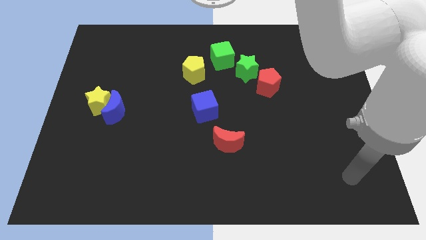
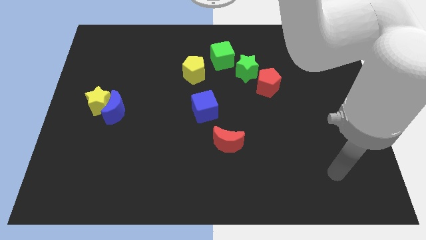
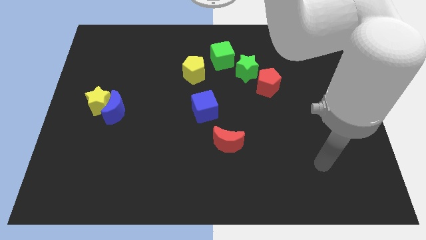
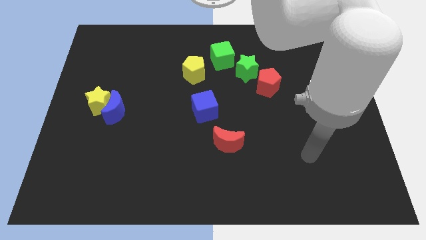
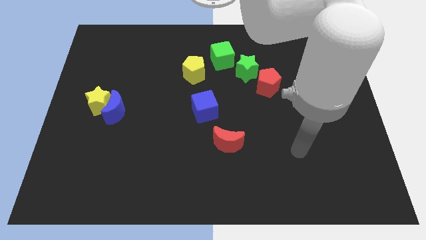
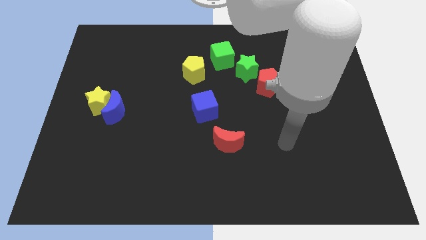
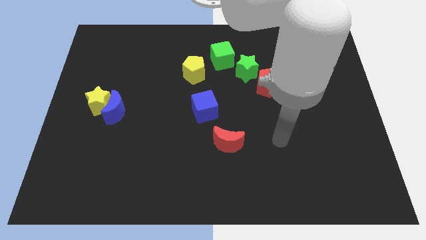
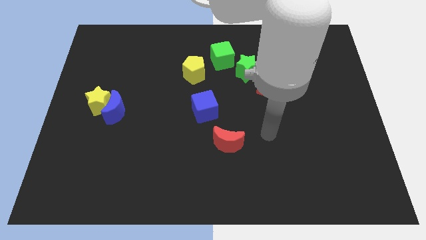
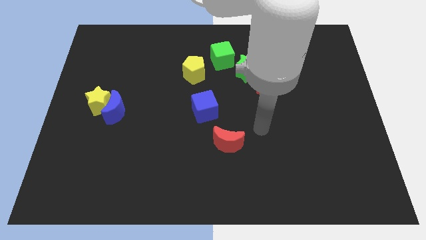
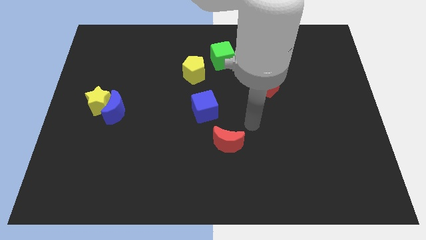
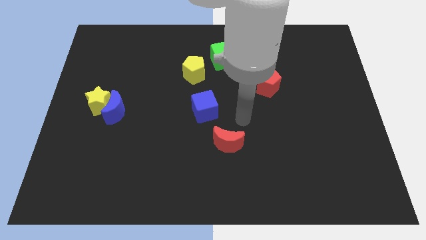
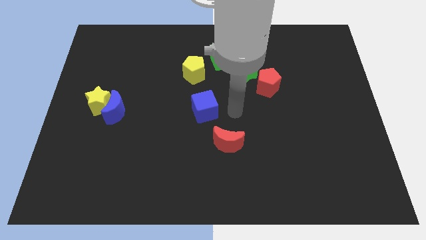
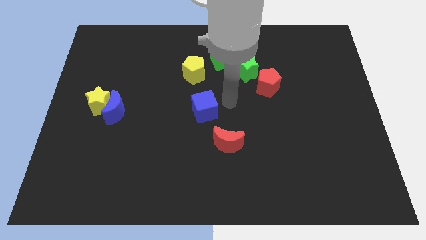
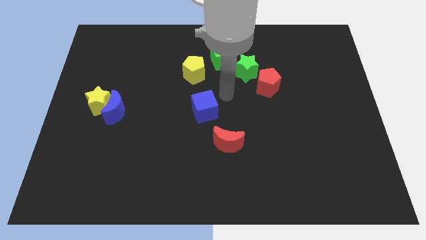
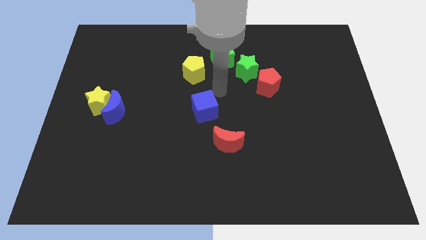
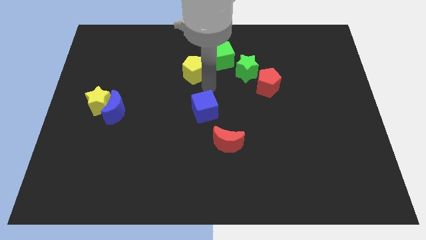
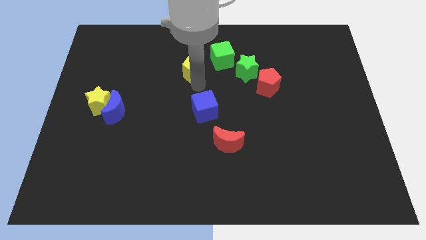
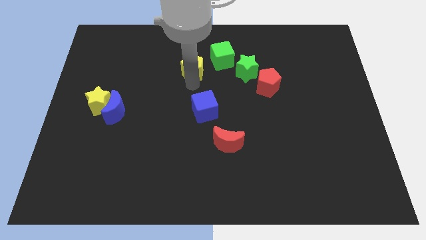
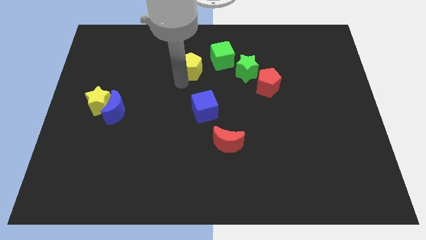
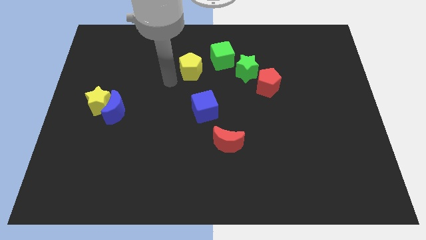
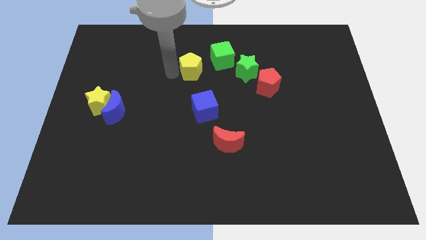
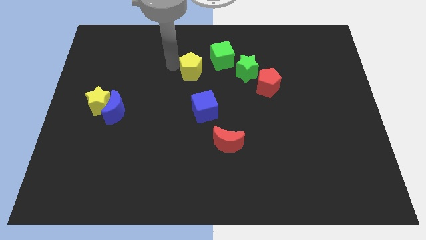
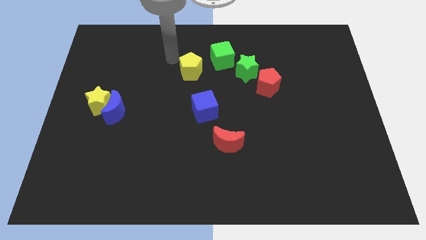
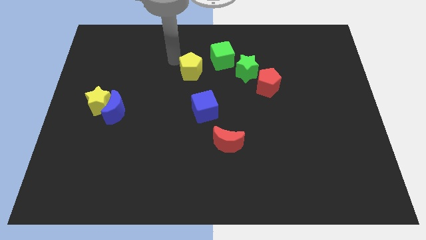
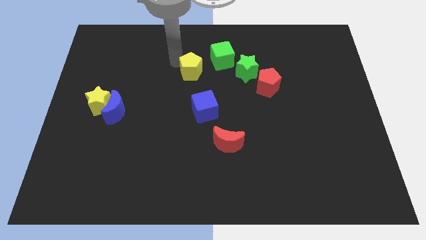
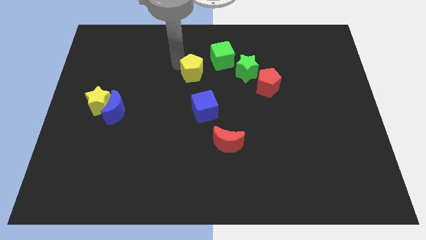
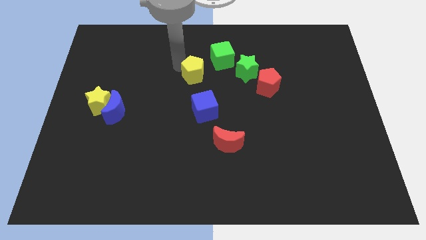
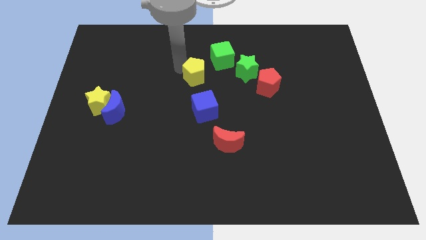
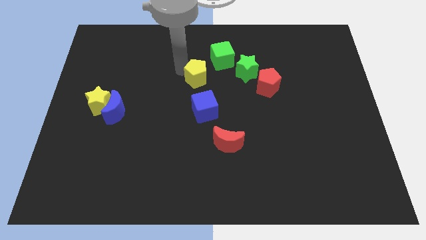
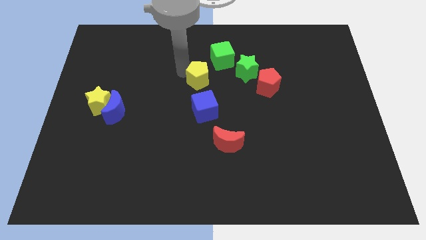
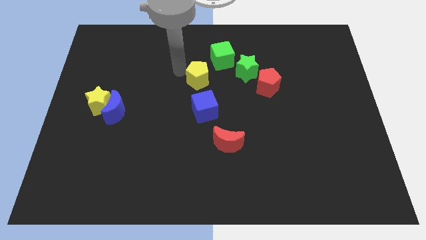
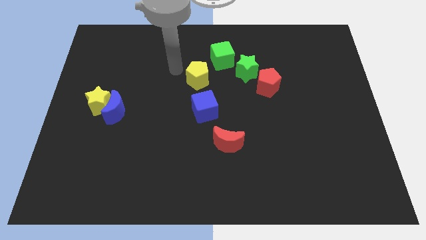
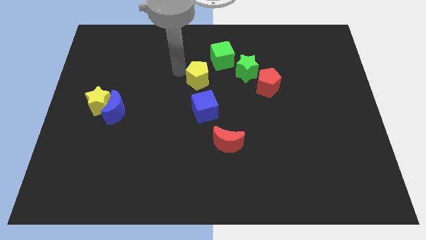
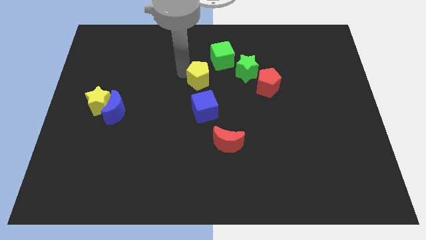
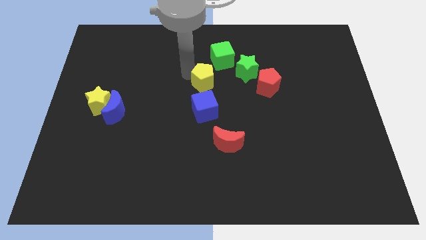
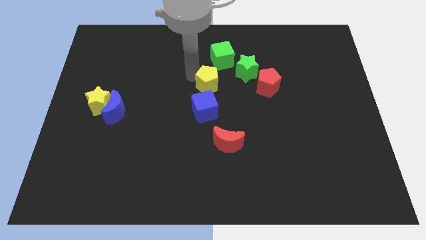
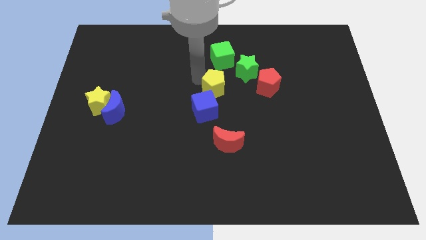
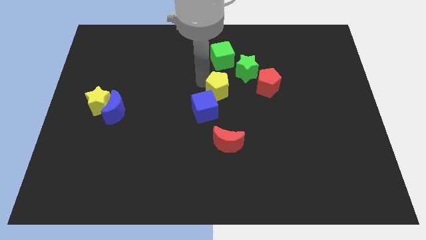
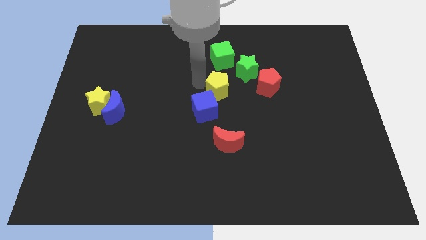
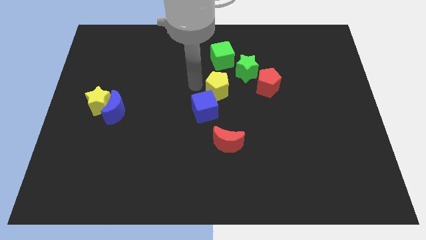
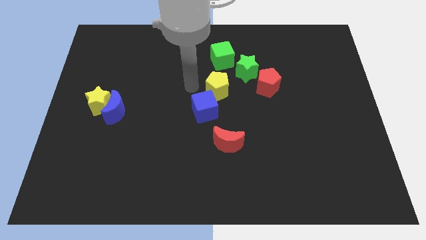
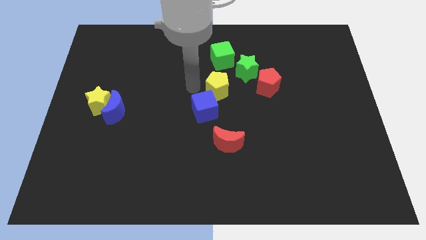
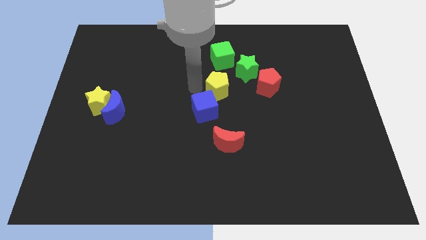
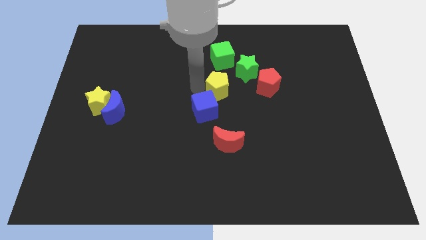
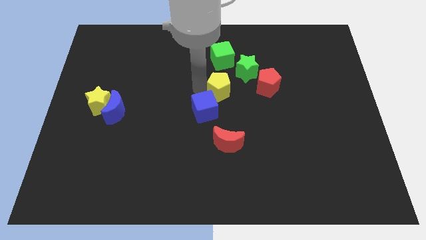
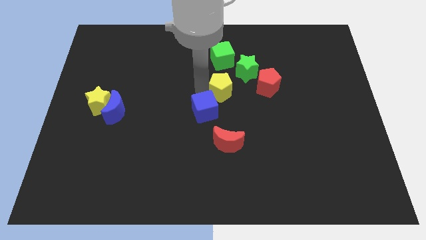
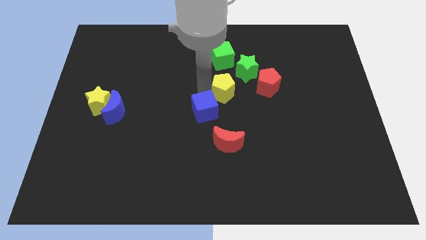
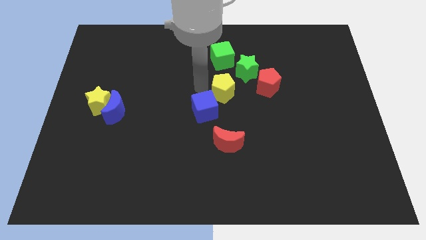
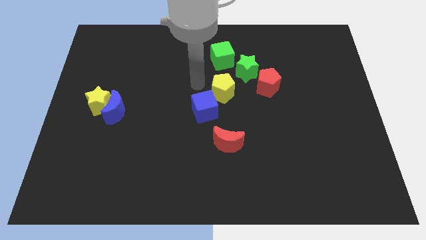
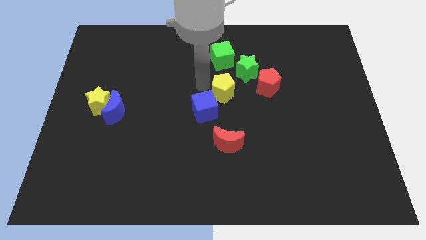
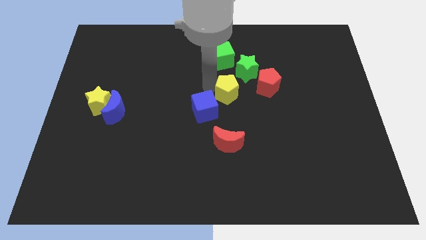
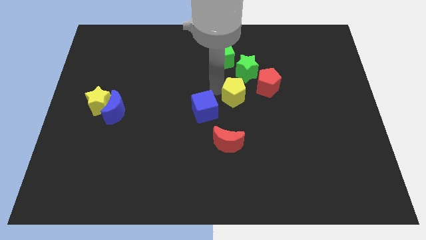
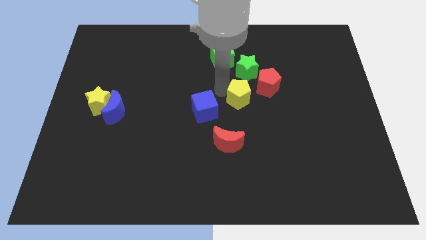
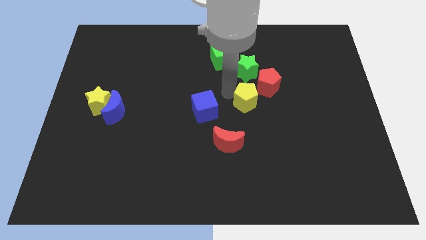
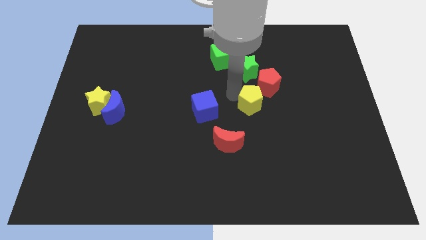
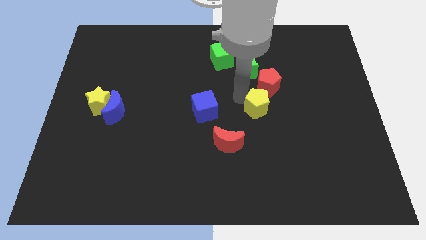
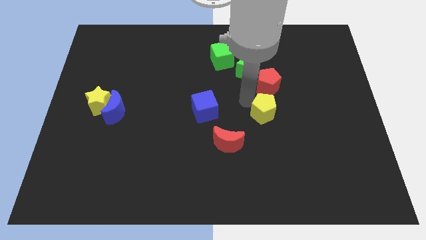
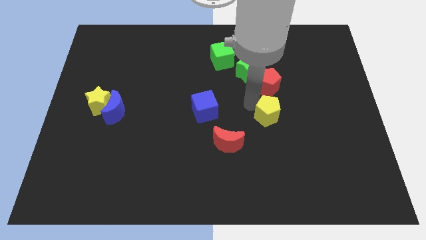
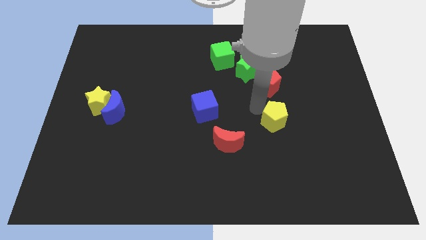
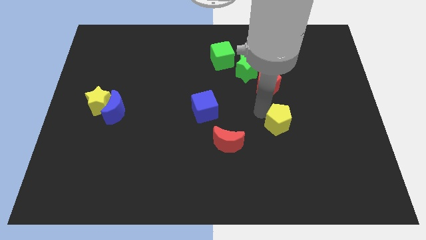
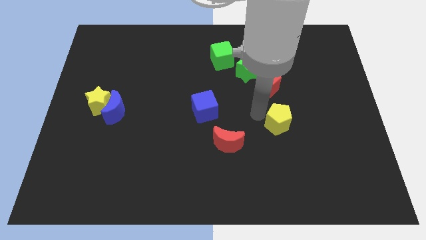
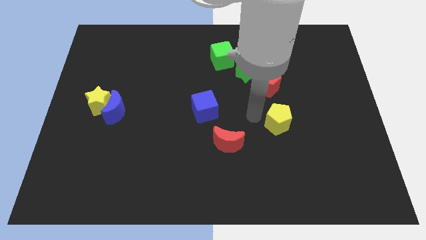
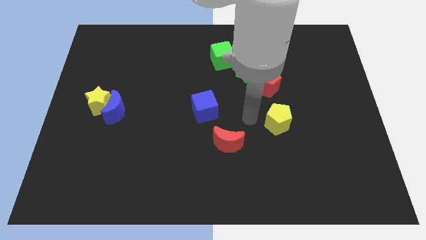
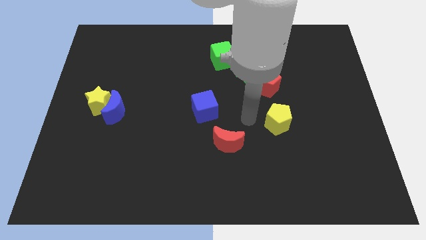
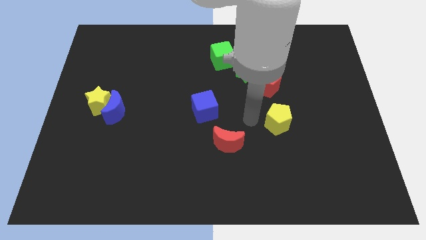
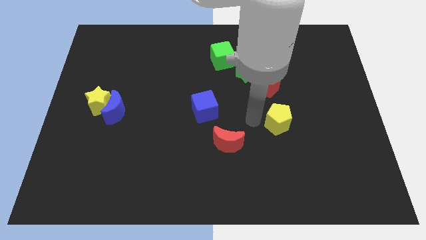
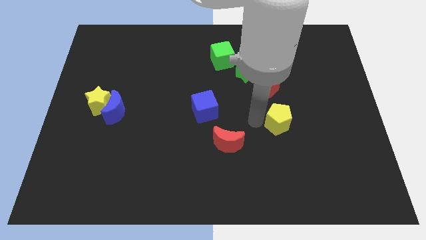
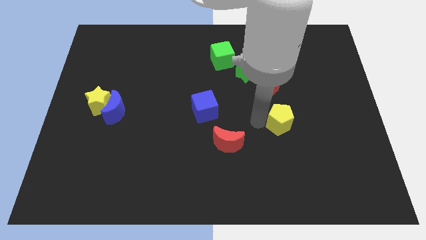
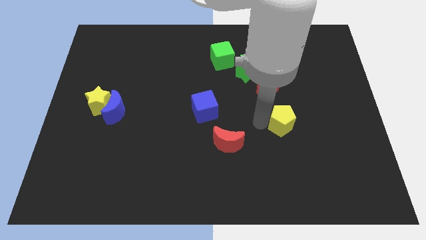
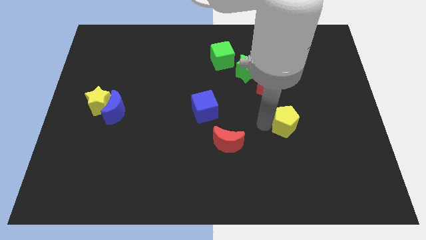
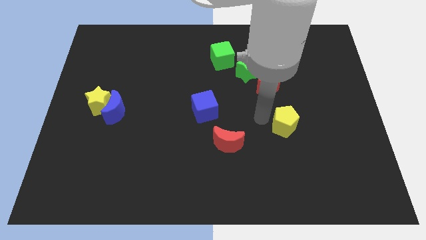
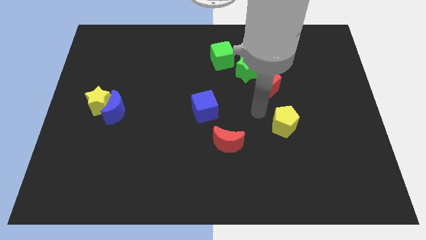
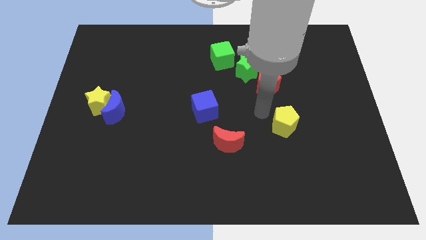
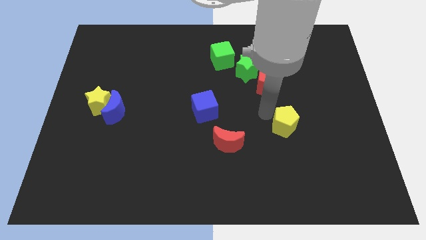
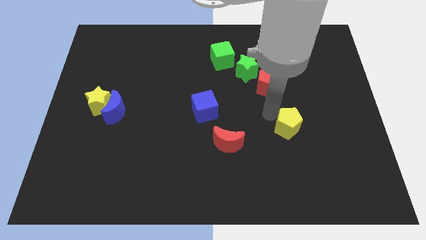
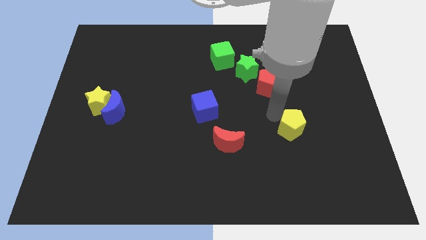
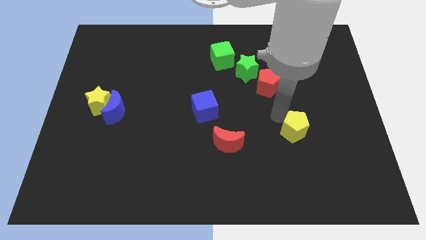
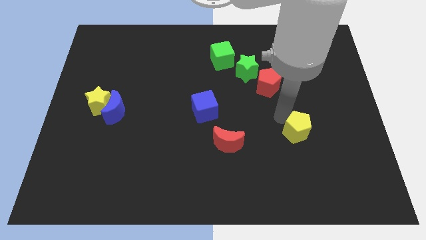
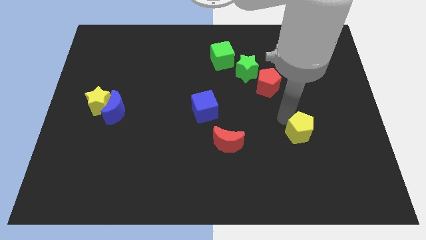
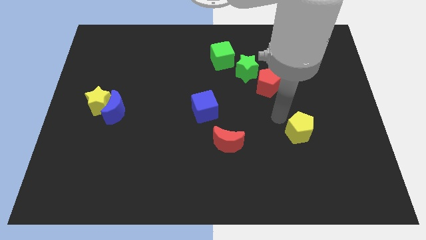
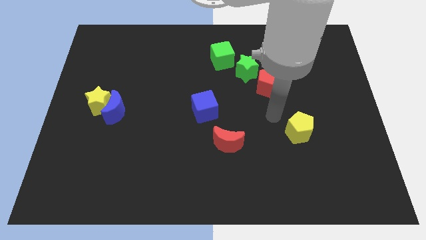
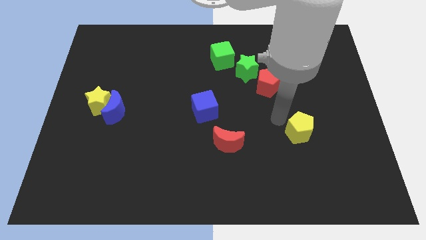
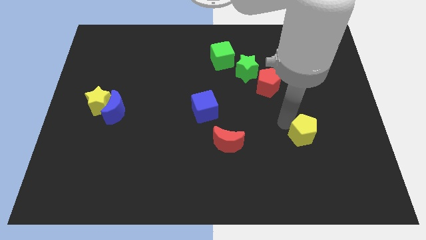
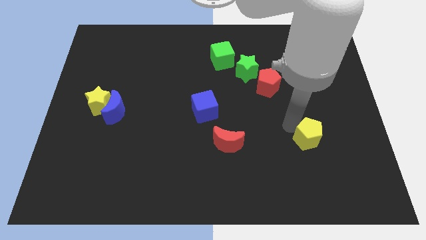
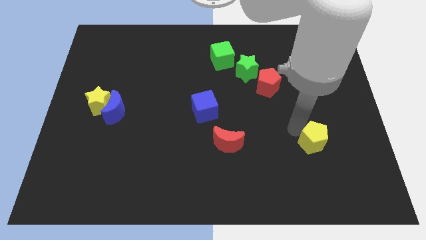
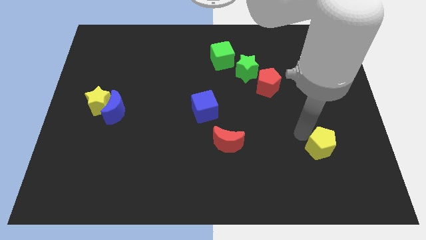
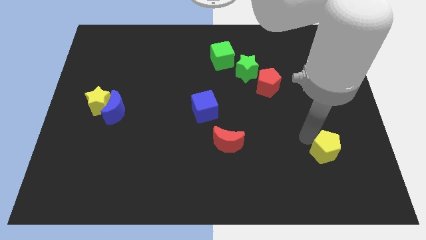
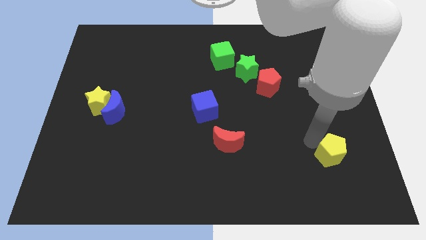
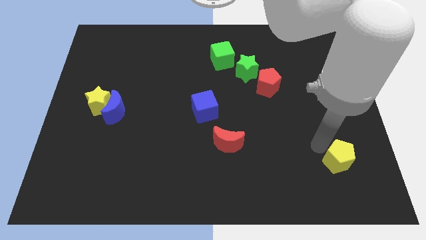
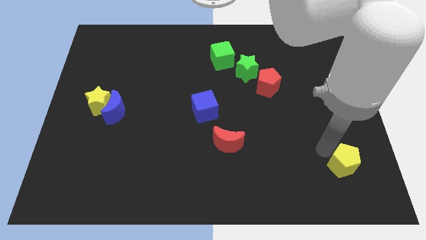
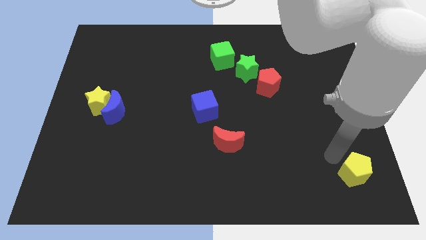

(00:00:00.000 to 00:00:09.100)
move the yellow pentagon to the bottom right
